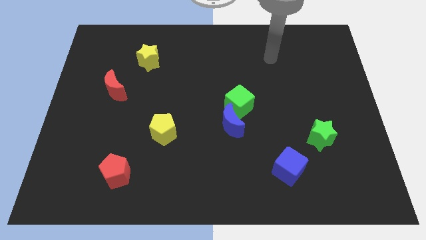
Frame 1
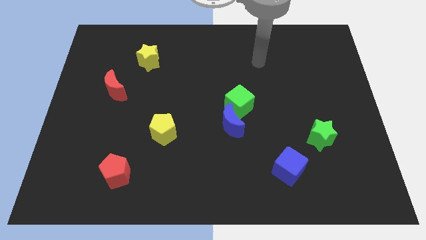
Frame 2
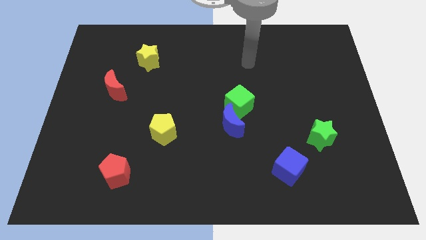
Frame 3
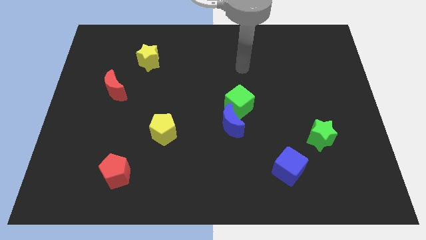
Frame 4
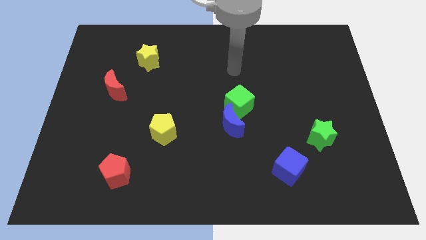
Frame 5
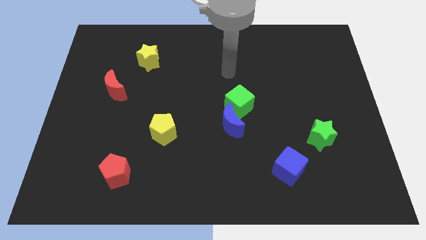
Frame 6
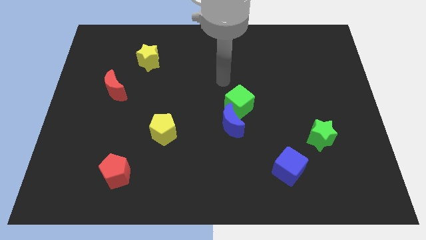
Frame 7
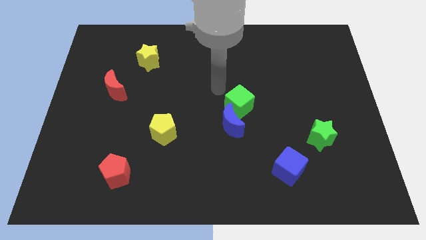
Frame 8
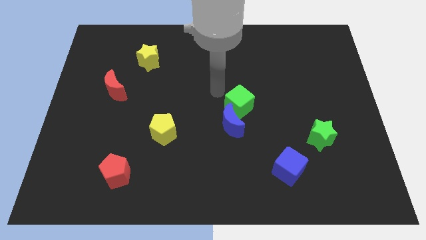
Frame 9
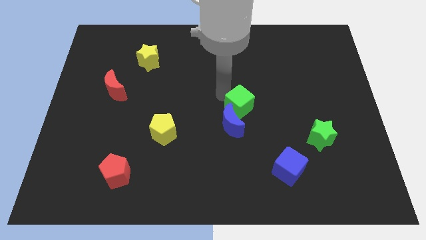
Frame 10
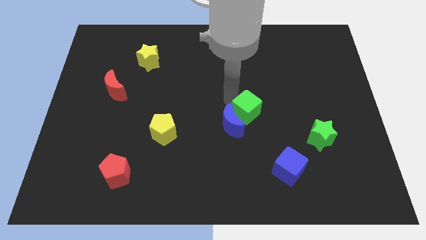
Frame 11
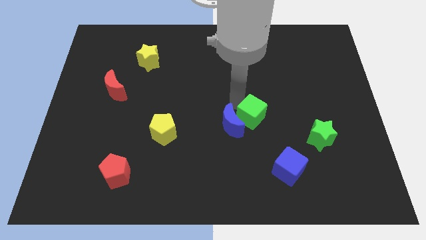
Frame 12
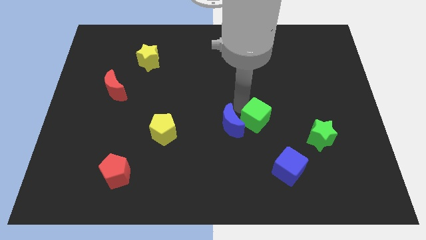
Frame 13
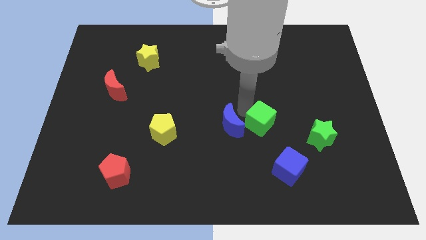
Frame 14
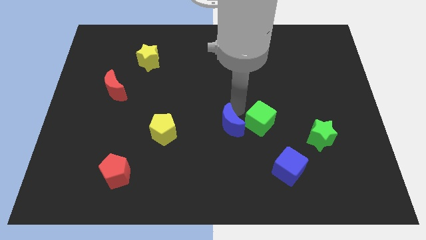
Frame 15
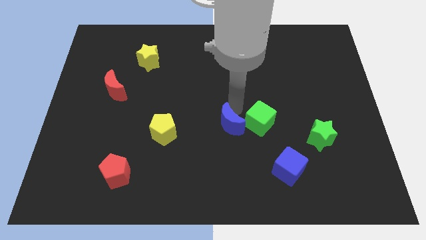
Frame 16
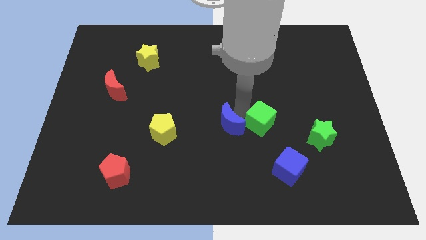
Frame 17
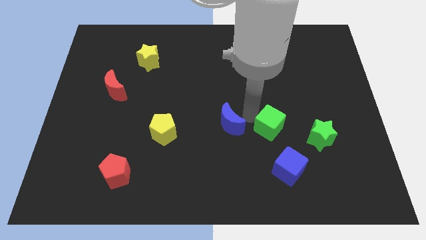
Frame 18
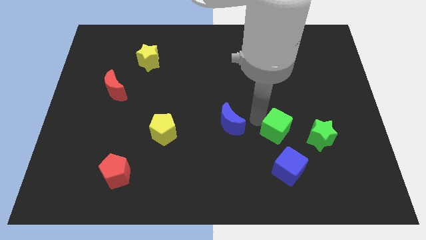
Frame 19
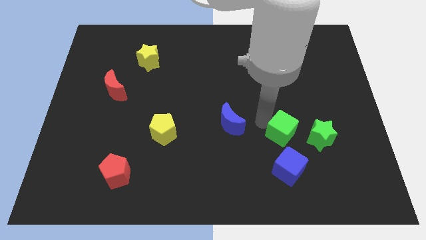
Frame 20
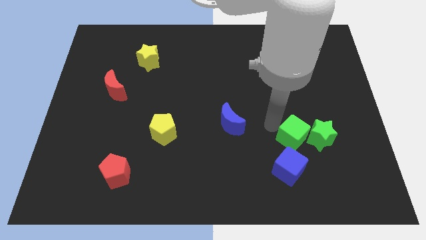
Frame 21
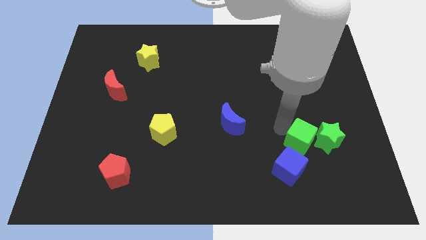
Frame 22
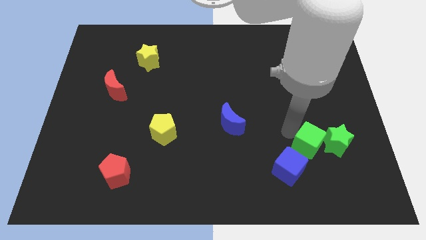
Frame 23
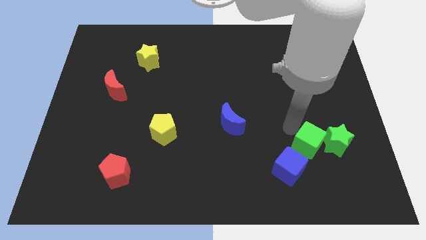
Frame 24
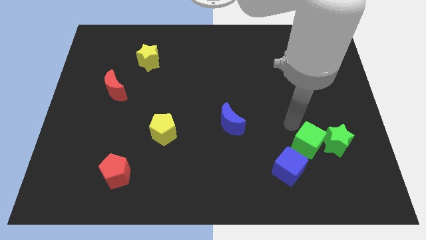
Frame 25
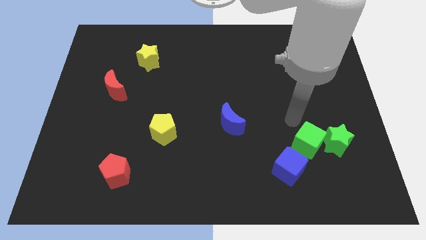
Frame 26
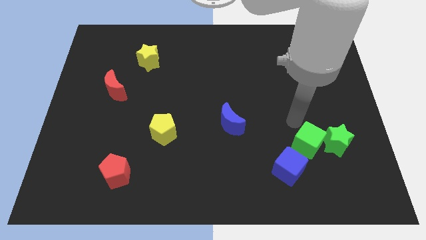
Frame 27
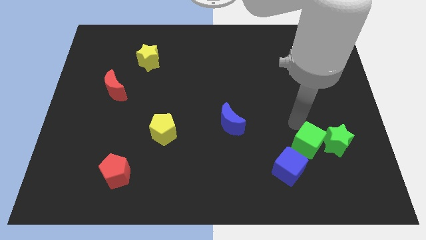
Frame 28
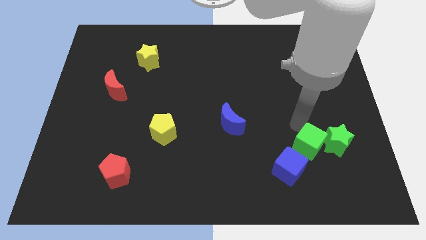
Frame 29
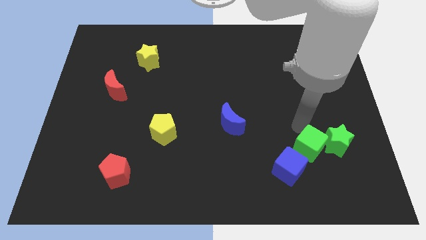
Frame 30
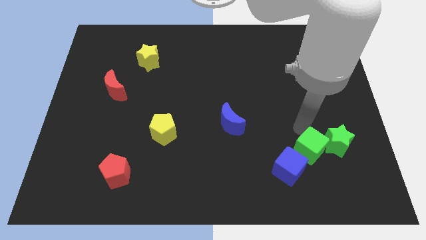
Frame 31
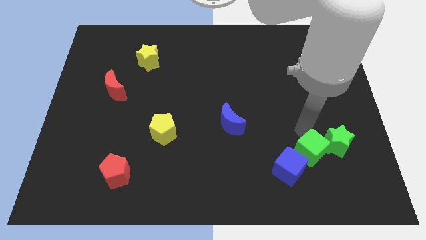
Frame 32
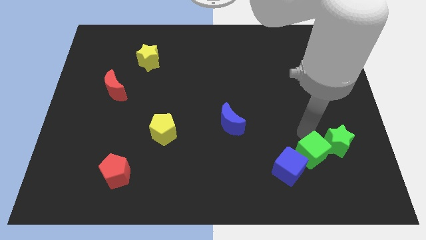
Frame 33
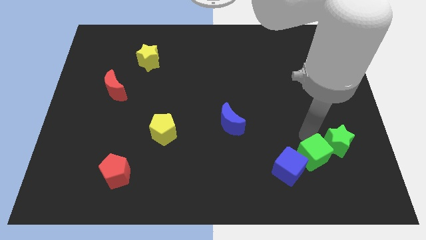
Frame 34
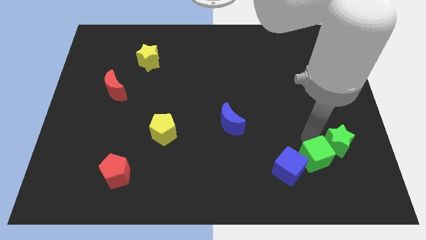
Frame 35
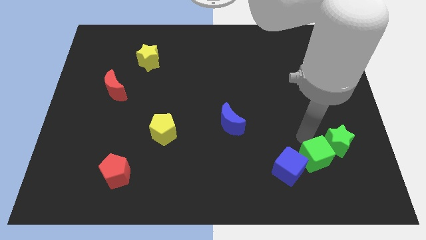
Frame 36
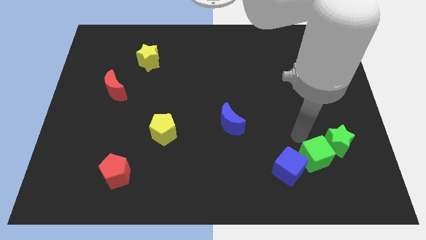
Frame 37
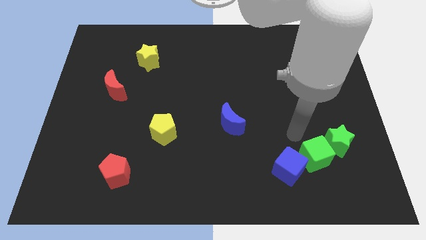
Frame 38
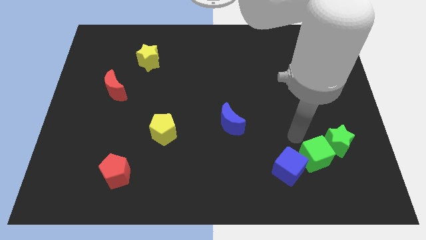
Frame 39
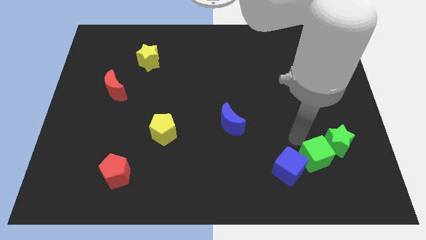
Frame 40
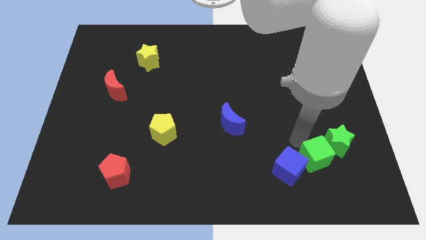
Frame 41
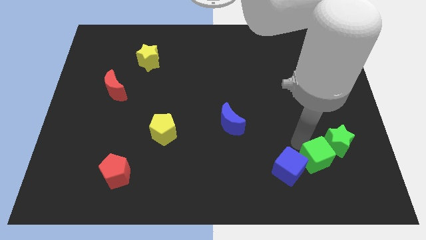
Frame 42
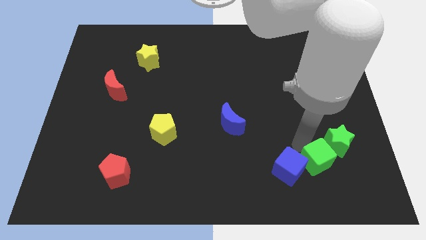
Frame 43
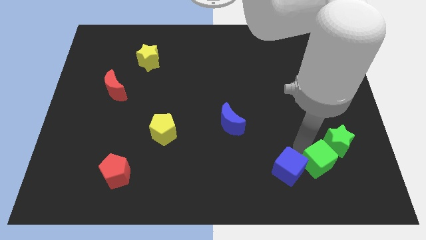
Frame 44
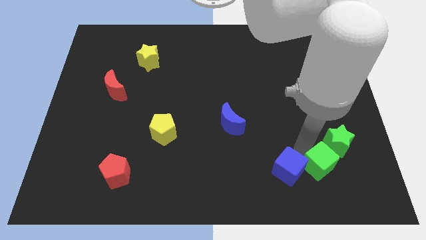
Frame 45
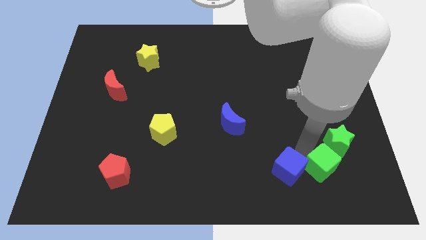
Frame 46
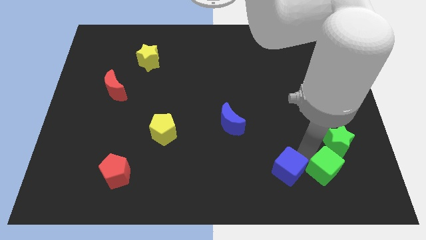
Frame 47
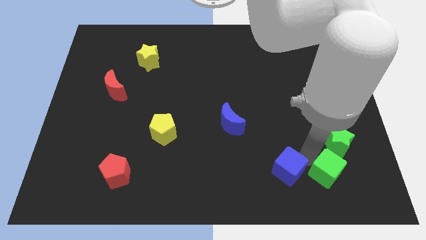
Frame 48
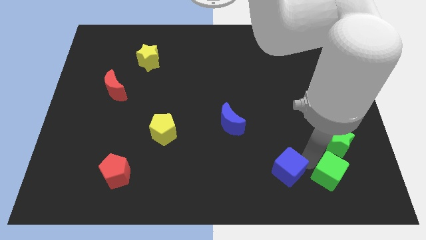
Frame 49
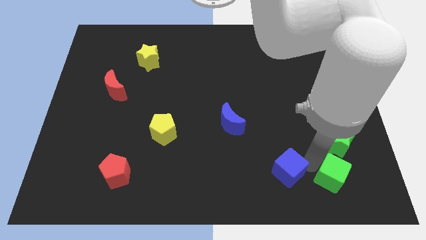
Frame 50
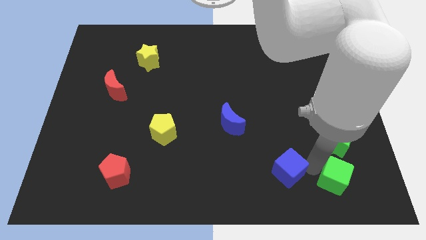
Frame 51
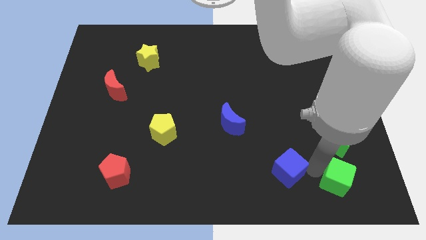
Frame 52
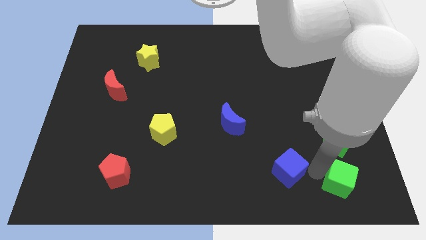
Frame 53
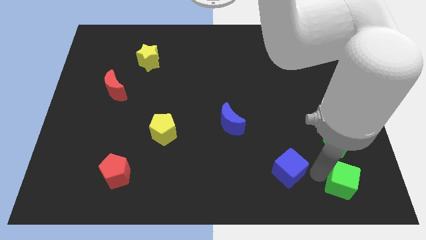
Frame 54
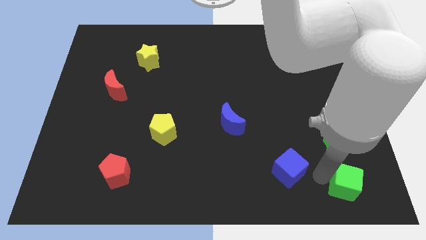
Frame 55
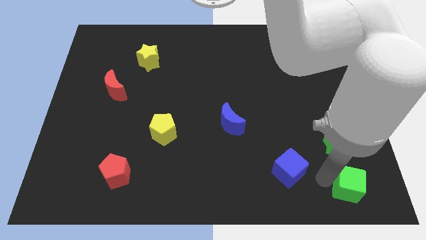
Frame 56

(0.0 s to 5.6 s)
push the green cube to the bottom right
